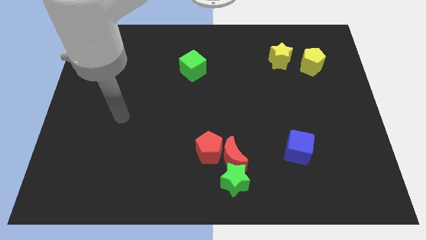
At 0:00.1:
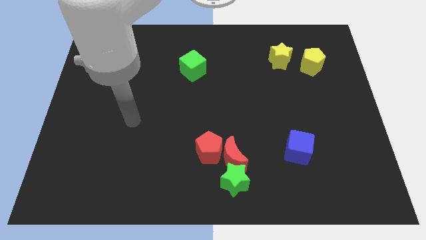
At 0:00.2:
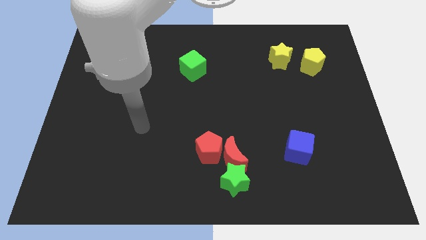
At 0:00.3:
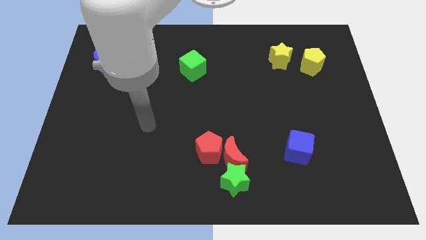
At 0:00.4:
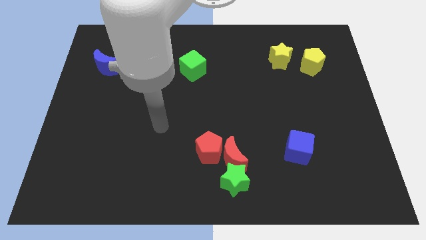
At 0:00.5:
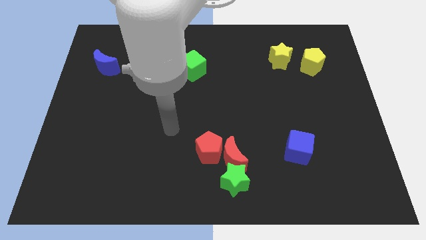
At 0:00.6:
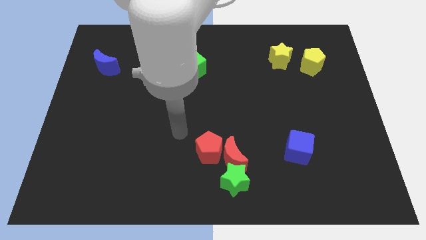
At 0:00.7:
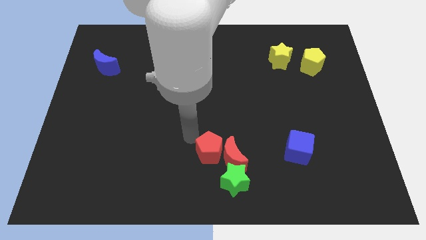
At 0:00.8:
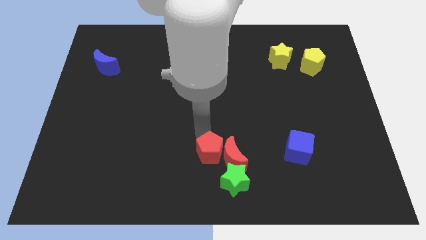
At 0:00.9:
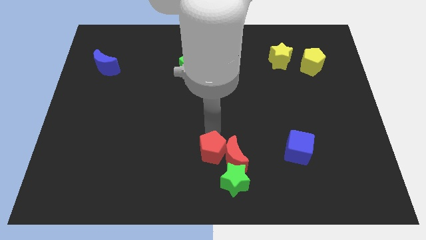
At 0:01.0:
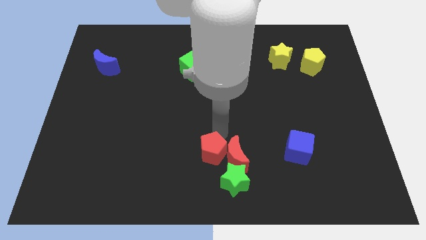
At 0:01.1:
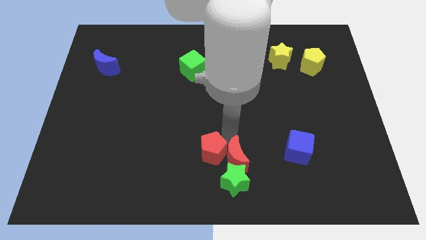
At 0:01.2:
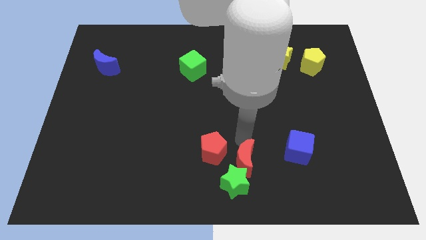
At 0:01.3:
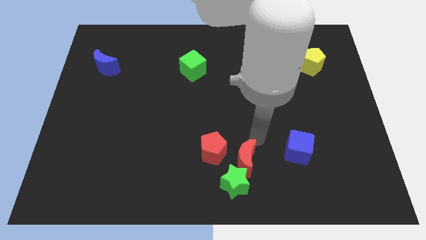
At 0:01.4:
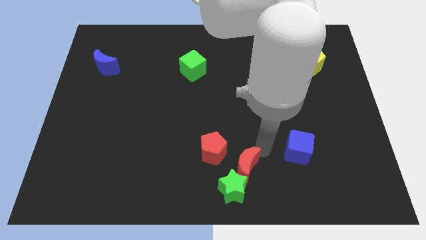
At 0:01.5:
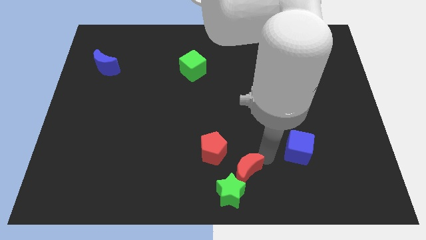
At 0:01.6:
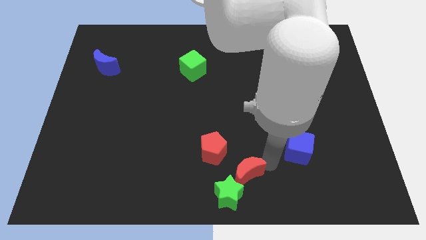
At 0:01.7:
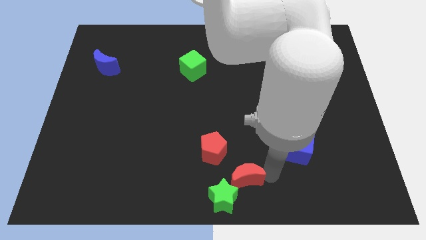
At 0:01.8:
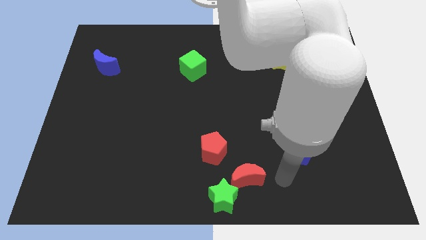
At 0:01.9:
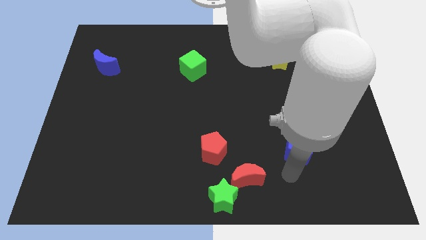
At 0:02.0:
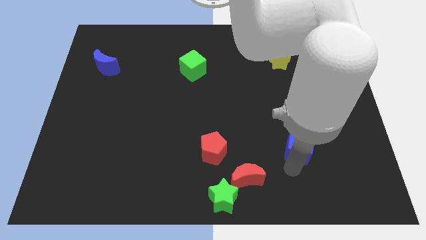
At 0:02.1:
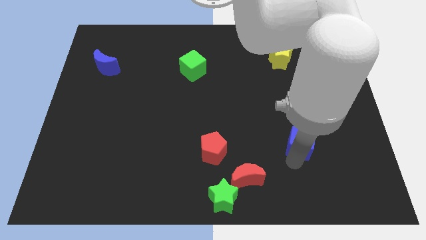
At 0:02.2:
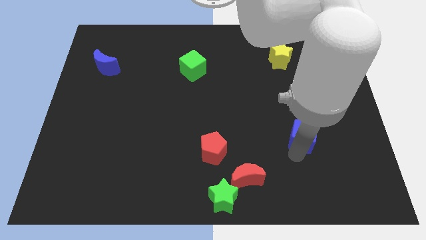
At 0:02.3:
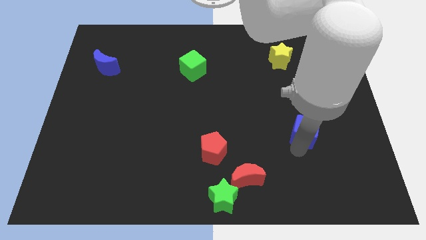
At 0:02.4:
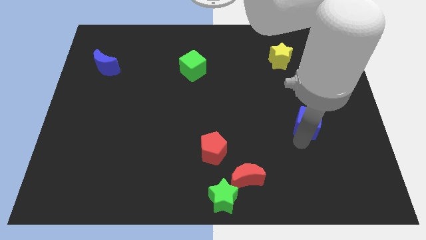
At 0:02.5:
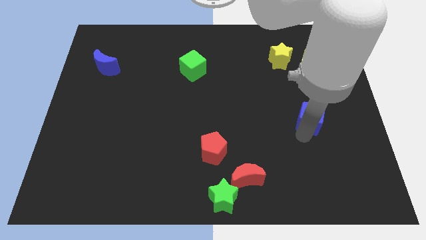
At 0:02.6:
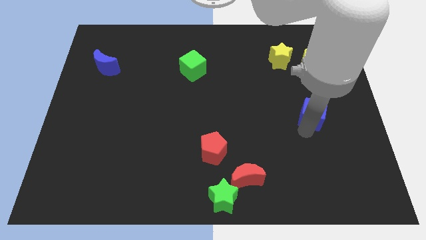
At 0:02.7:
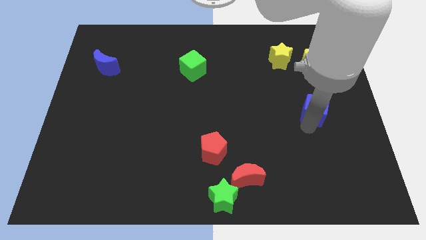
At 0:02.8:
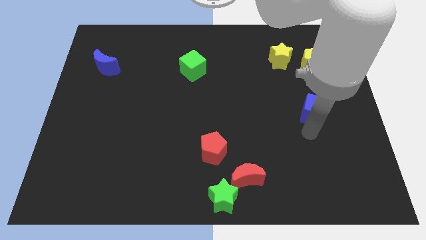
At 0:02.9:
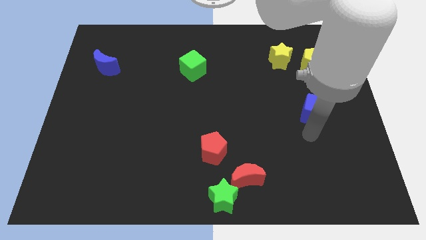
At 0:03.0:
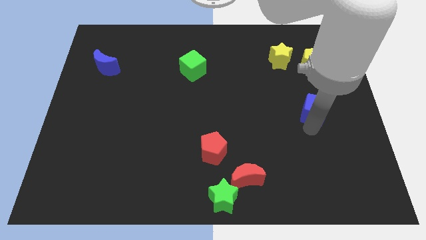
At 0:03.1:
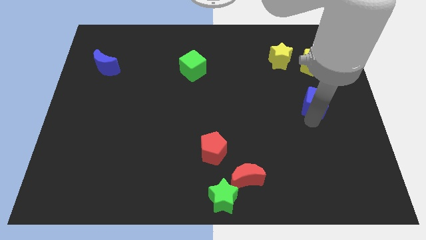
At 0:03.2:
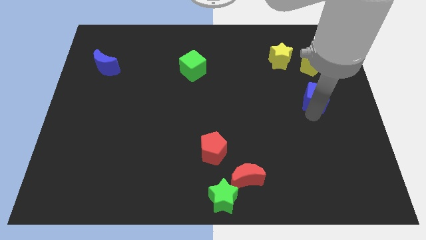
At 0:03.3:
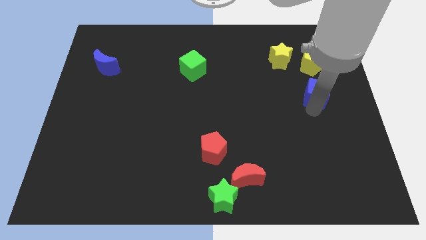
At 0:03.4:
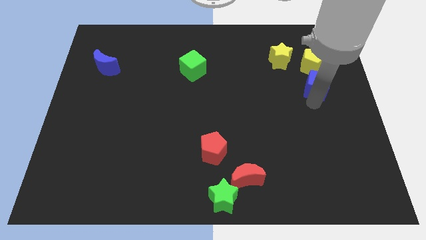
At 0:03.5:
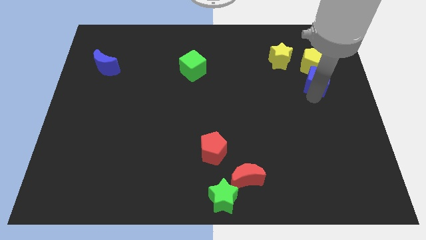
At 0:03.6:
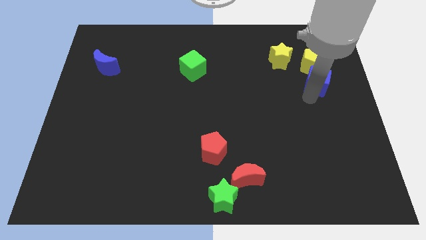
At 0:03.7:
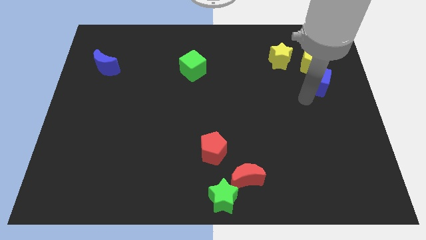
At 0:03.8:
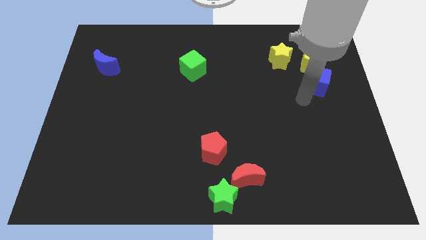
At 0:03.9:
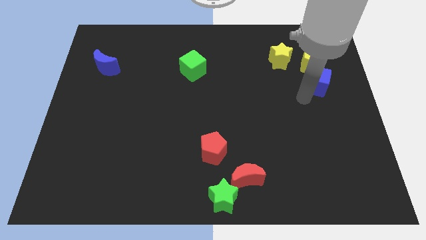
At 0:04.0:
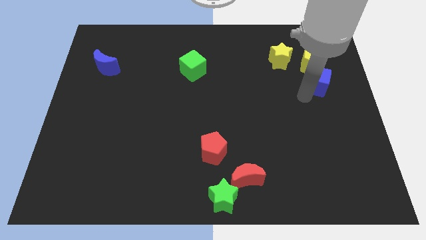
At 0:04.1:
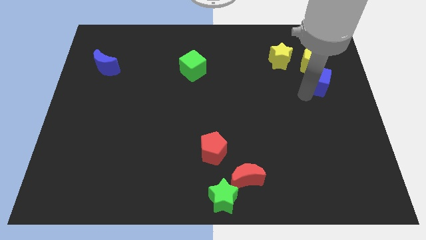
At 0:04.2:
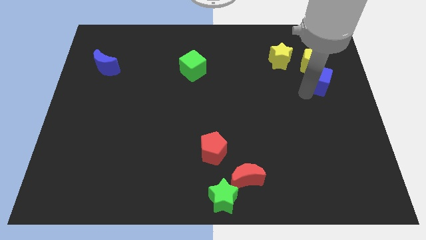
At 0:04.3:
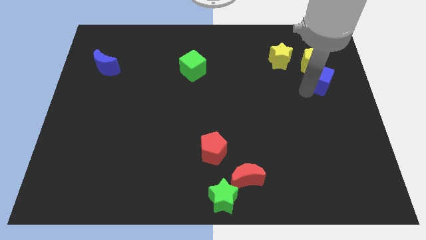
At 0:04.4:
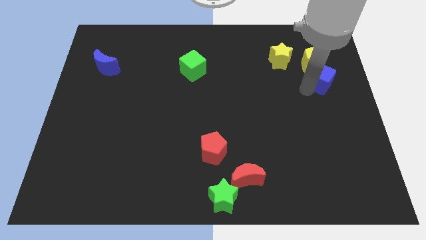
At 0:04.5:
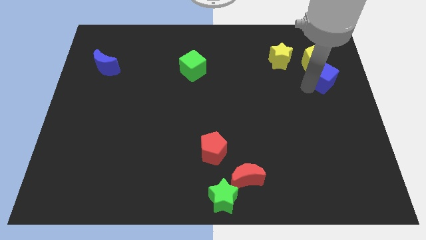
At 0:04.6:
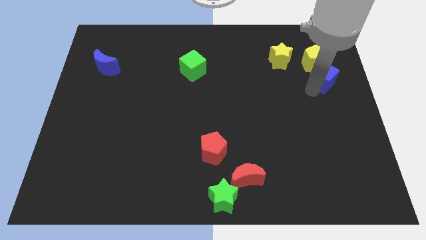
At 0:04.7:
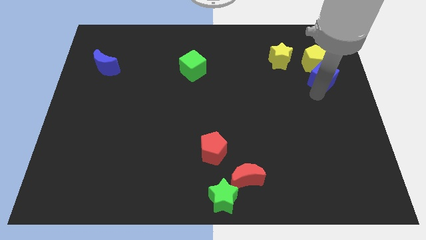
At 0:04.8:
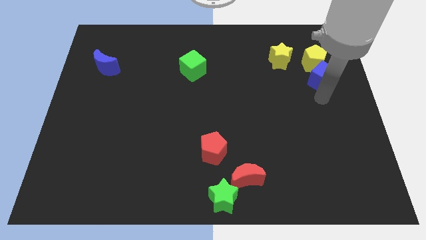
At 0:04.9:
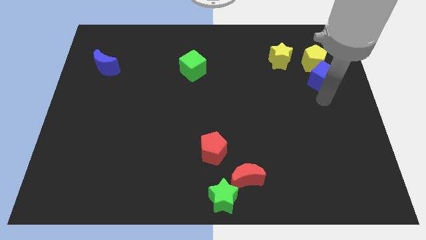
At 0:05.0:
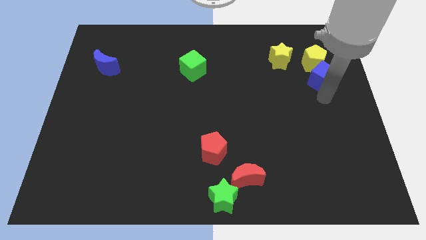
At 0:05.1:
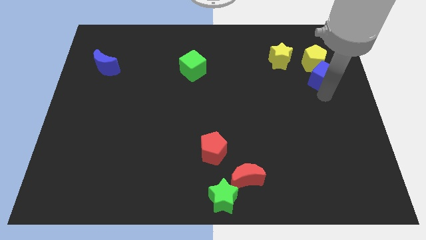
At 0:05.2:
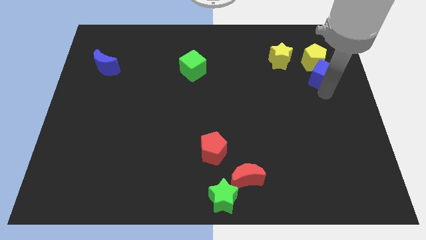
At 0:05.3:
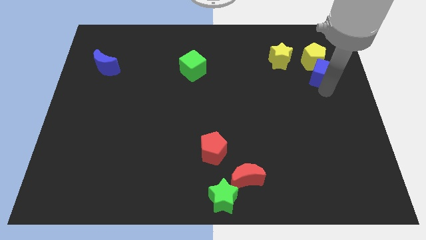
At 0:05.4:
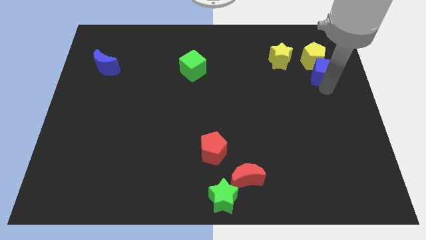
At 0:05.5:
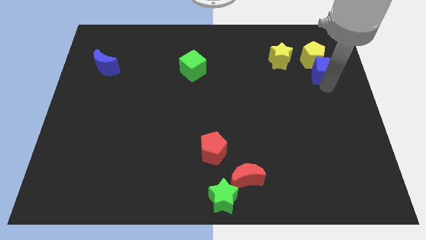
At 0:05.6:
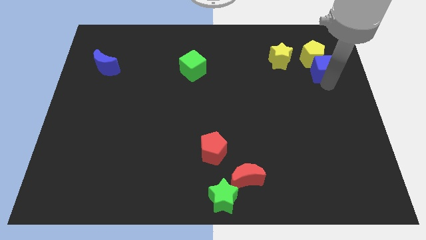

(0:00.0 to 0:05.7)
push the blue cube to the right of the yellow star

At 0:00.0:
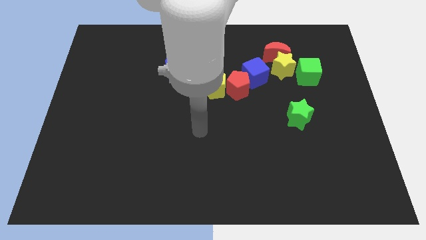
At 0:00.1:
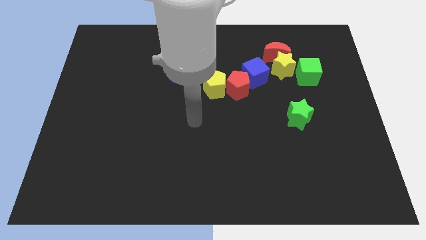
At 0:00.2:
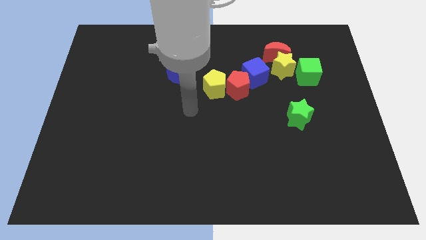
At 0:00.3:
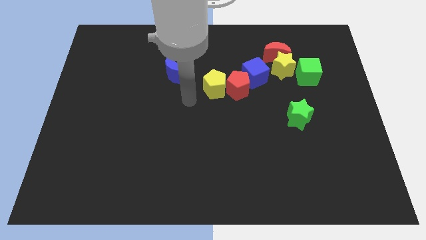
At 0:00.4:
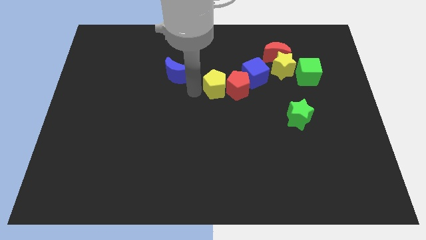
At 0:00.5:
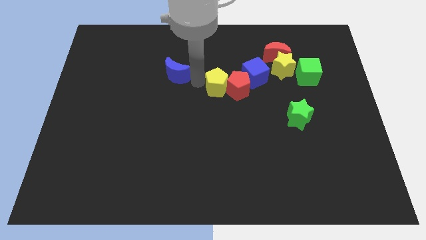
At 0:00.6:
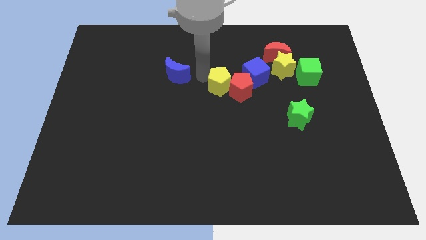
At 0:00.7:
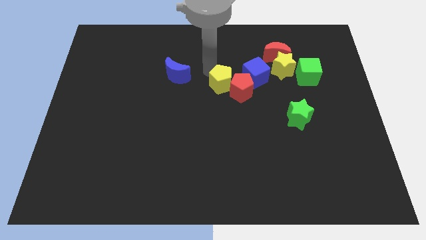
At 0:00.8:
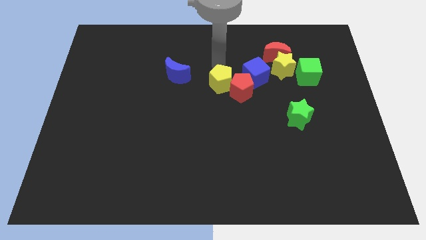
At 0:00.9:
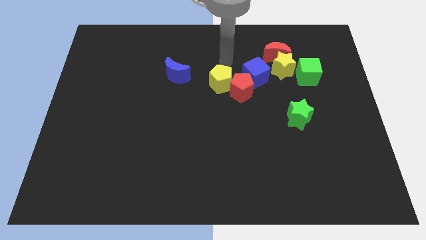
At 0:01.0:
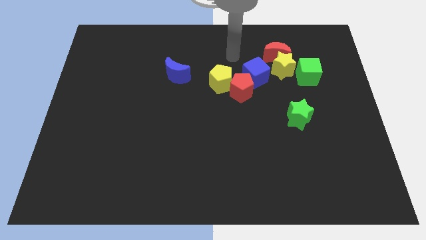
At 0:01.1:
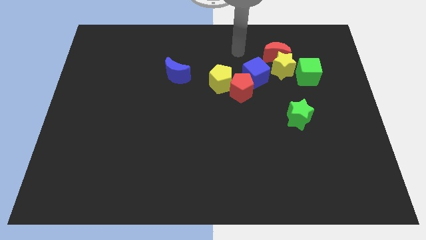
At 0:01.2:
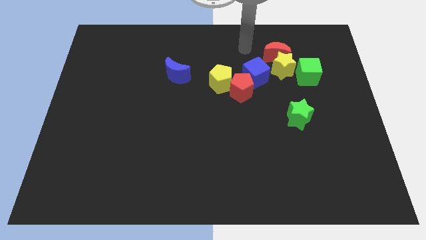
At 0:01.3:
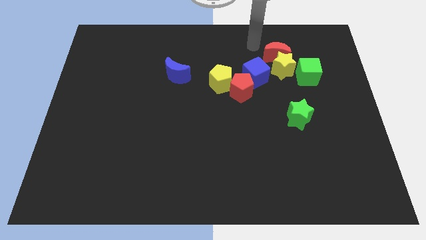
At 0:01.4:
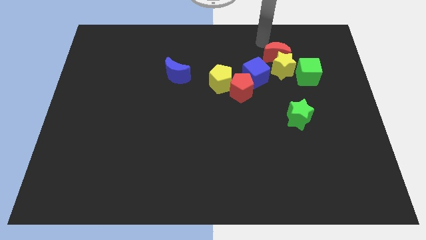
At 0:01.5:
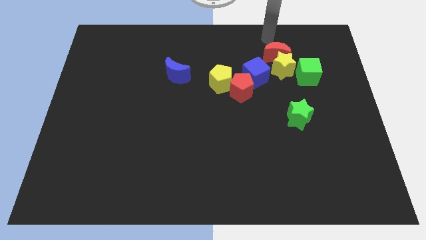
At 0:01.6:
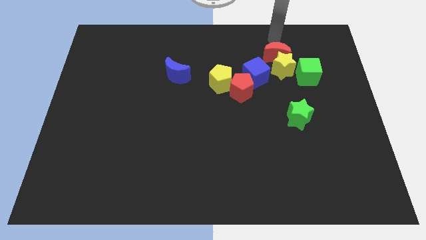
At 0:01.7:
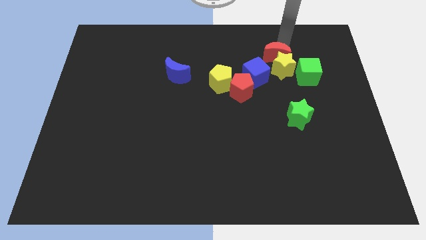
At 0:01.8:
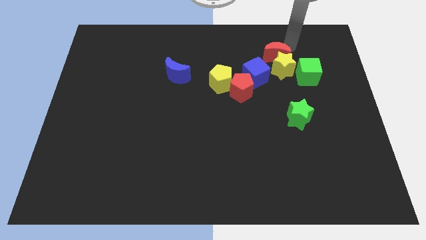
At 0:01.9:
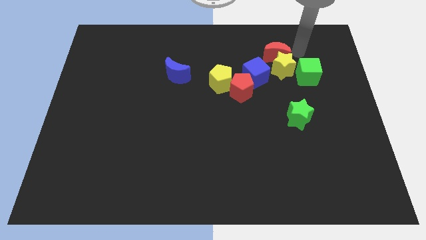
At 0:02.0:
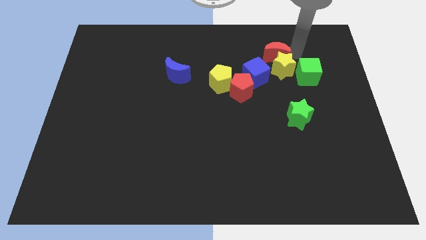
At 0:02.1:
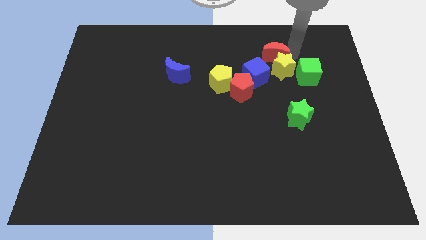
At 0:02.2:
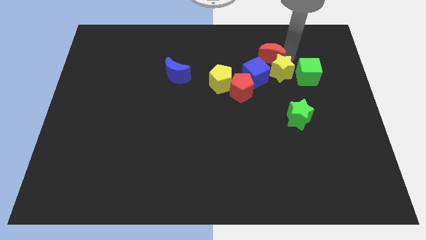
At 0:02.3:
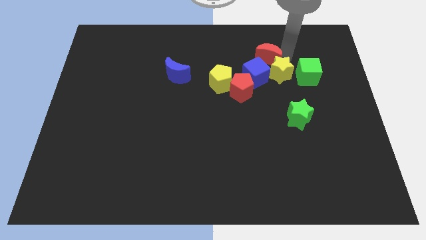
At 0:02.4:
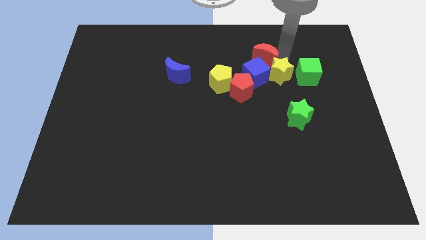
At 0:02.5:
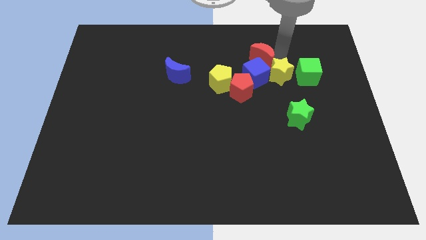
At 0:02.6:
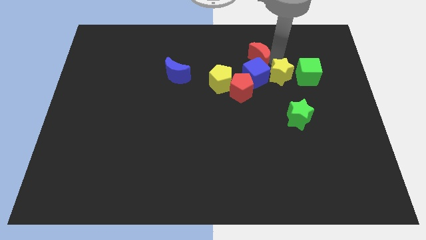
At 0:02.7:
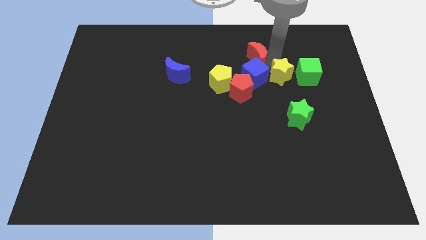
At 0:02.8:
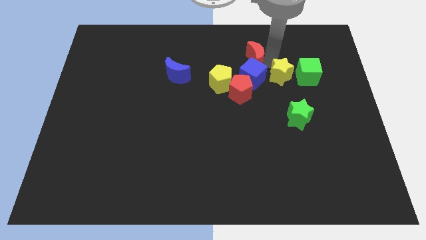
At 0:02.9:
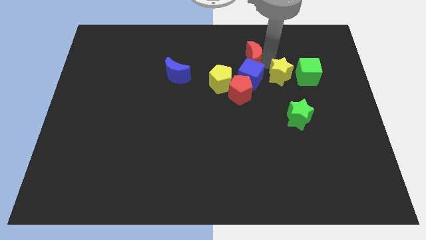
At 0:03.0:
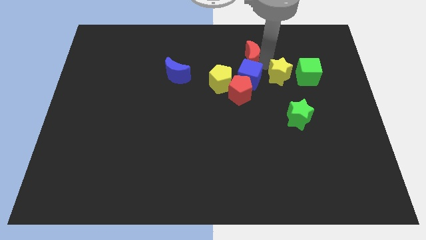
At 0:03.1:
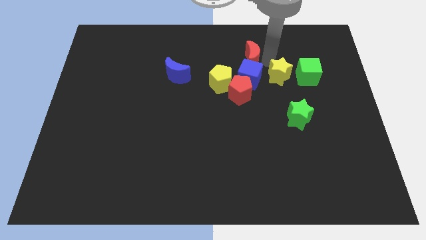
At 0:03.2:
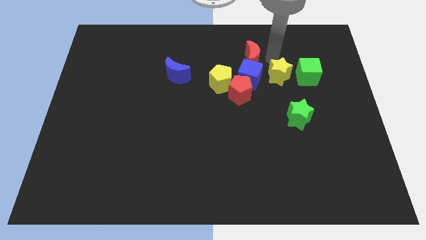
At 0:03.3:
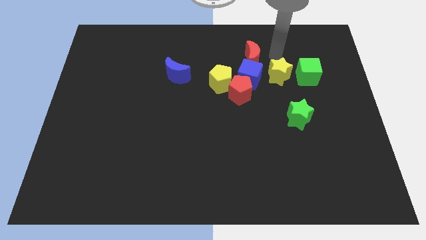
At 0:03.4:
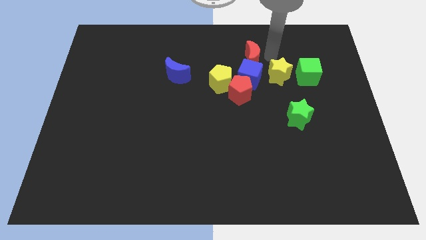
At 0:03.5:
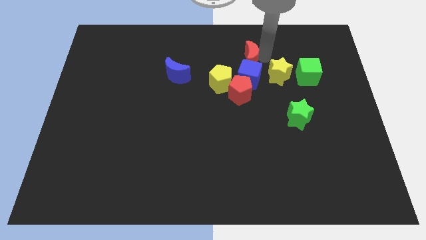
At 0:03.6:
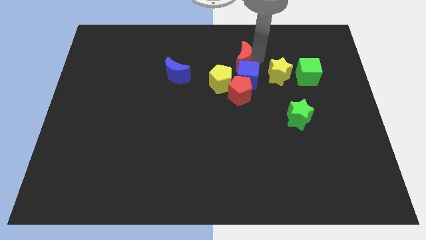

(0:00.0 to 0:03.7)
slide the red moon diagonally up and to the left of the blue cube
